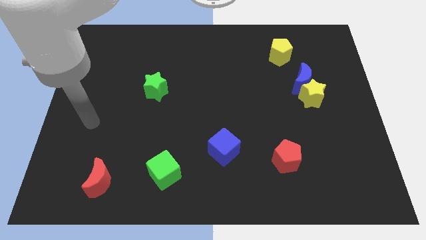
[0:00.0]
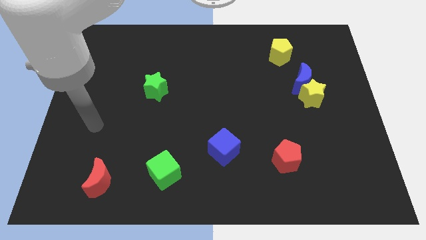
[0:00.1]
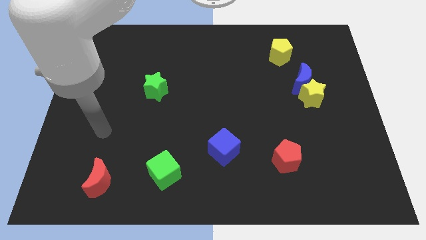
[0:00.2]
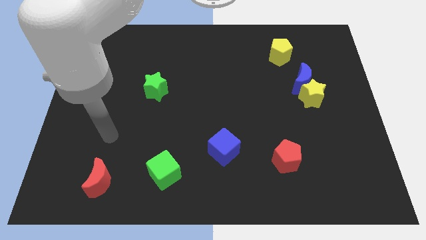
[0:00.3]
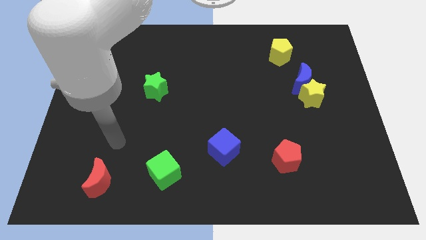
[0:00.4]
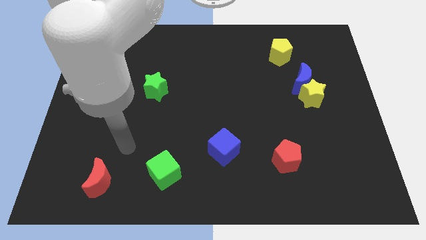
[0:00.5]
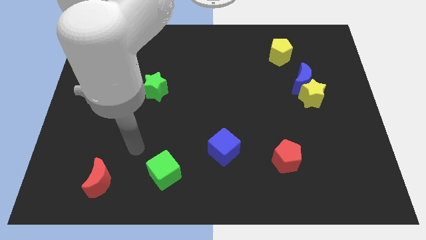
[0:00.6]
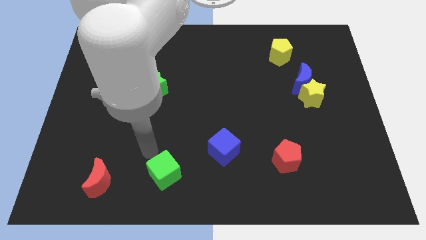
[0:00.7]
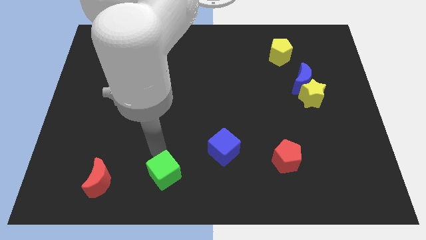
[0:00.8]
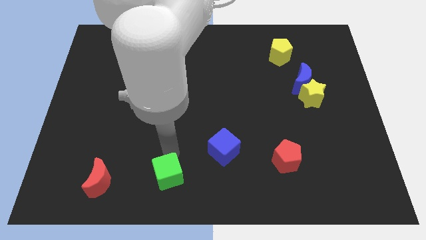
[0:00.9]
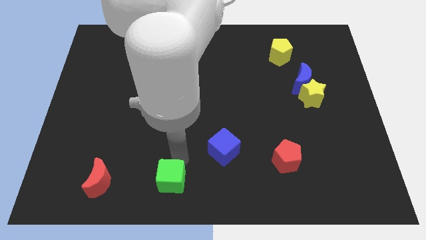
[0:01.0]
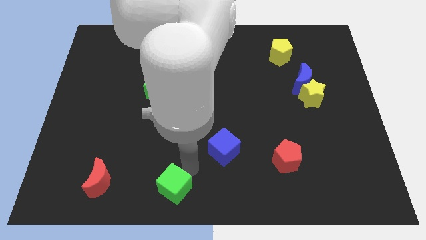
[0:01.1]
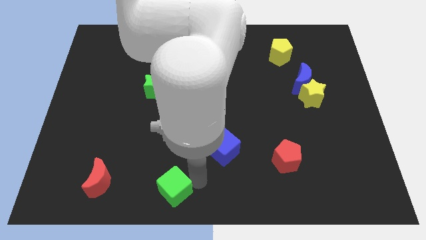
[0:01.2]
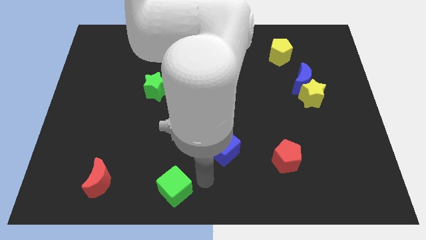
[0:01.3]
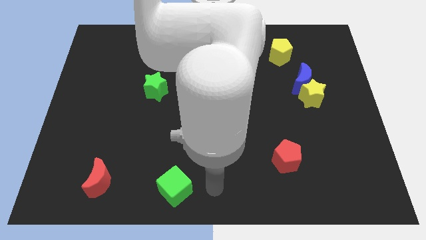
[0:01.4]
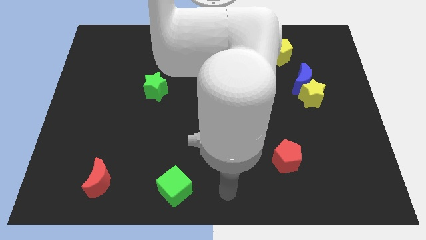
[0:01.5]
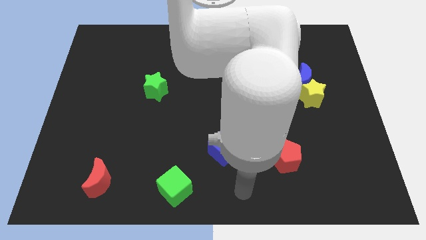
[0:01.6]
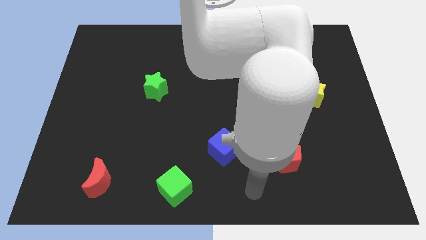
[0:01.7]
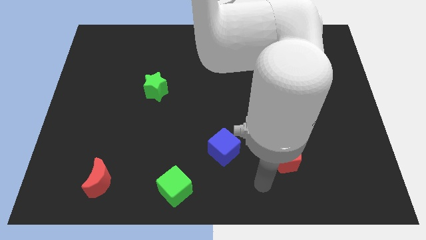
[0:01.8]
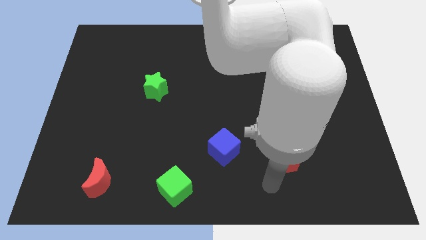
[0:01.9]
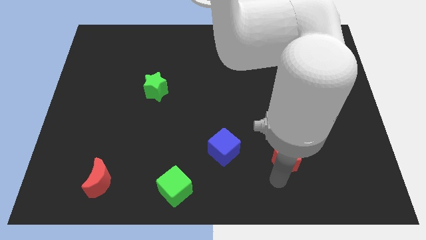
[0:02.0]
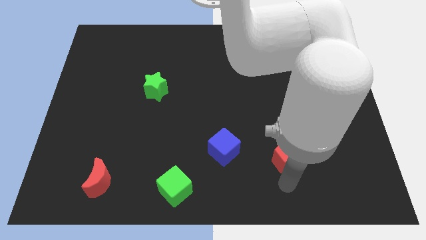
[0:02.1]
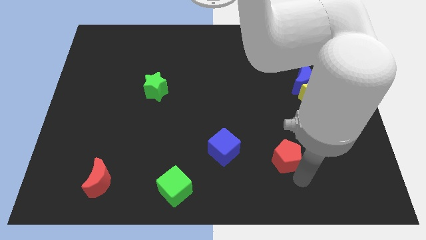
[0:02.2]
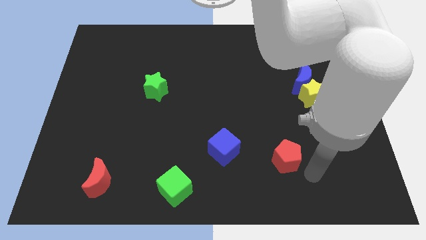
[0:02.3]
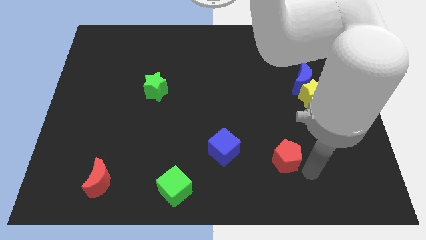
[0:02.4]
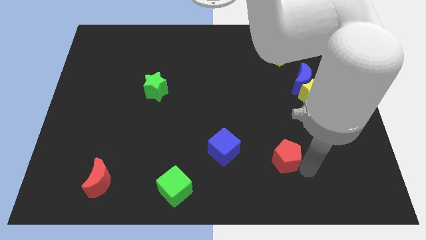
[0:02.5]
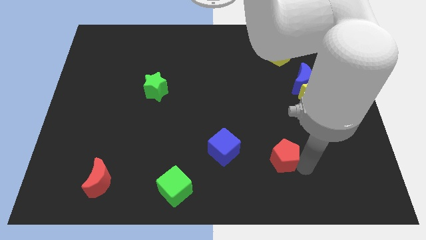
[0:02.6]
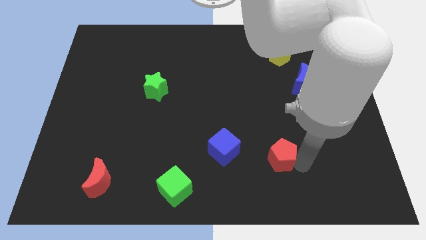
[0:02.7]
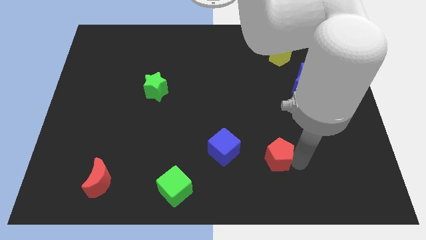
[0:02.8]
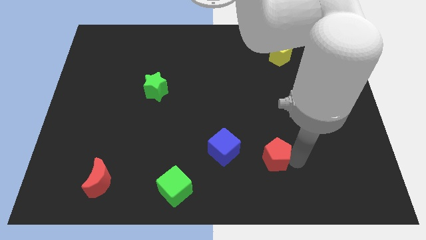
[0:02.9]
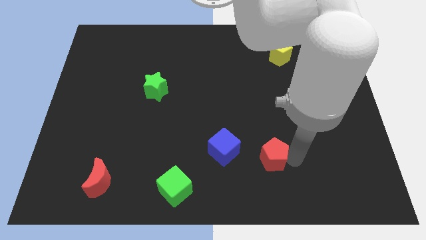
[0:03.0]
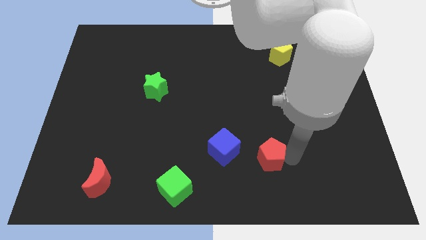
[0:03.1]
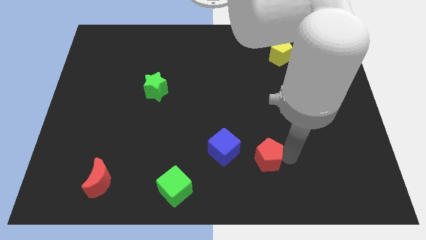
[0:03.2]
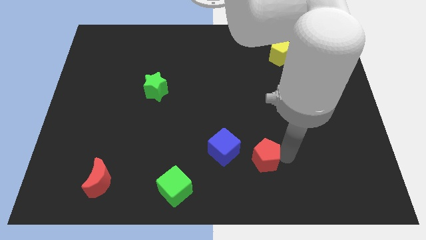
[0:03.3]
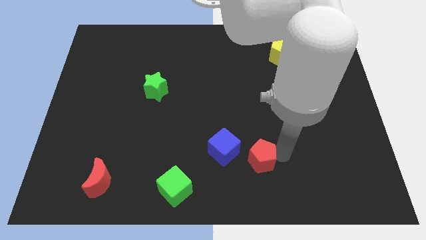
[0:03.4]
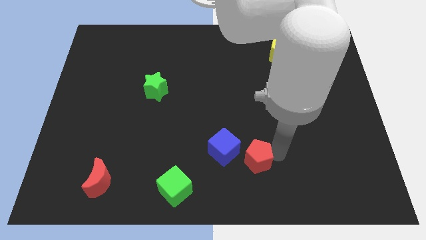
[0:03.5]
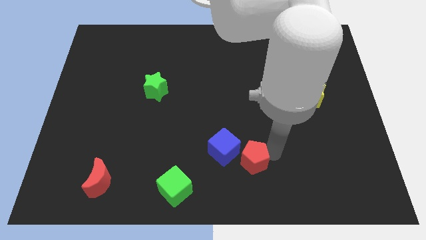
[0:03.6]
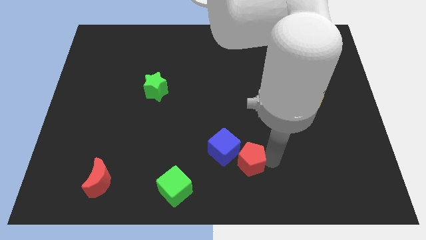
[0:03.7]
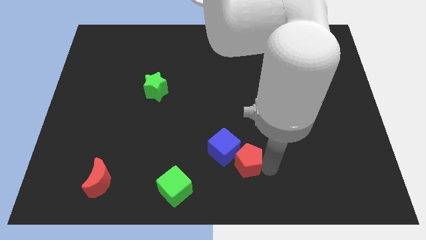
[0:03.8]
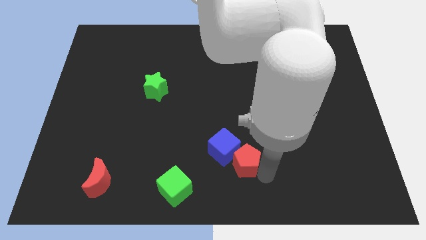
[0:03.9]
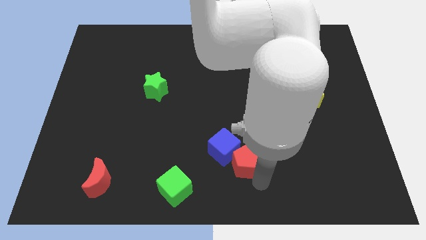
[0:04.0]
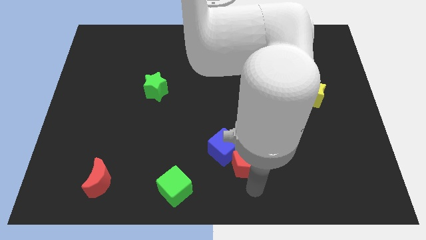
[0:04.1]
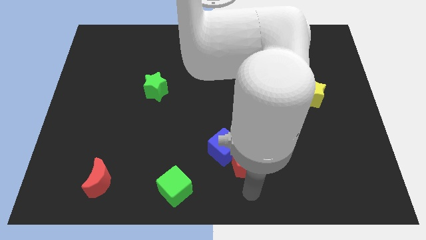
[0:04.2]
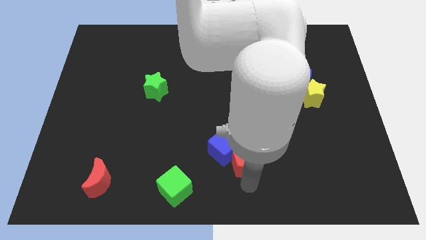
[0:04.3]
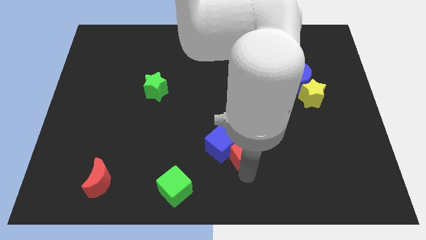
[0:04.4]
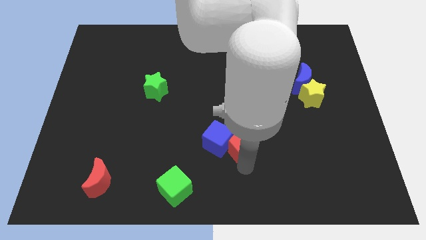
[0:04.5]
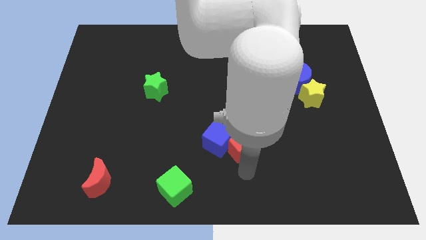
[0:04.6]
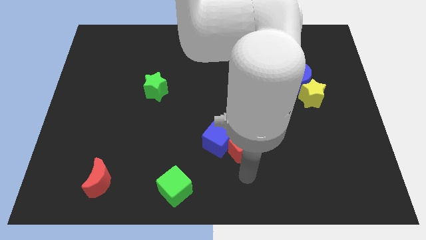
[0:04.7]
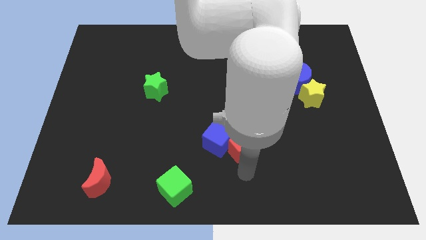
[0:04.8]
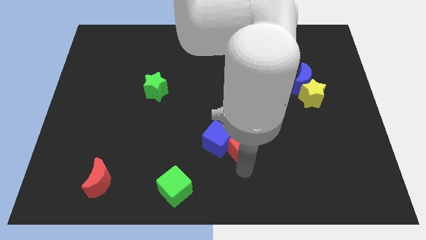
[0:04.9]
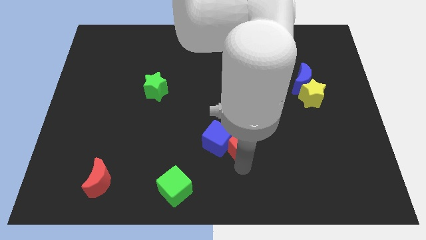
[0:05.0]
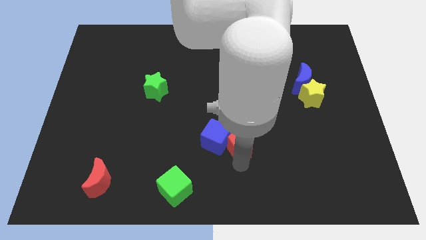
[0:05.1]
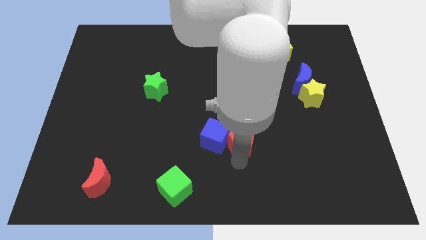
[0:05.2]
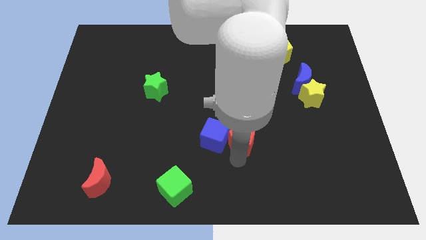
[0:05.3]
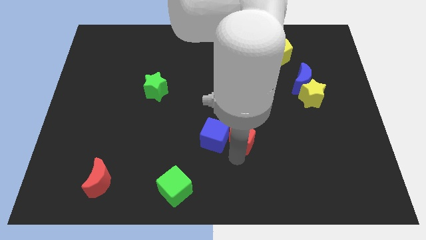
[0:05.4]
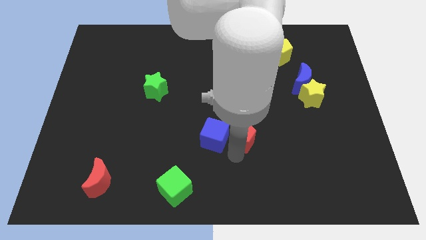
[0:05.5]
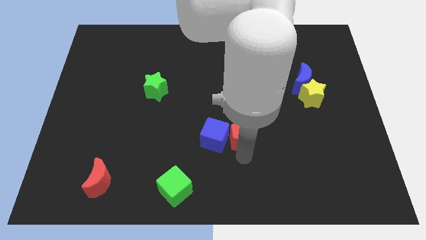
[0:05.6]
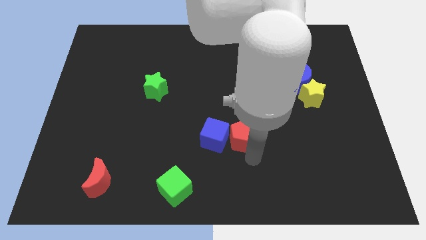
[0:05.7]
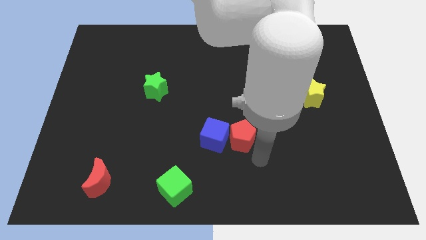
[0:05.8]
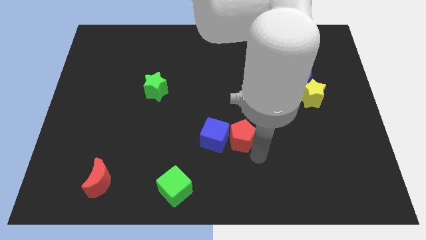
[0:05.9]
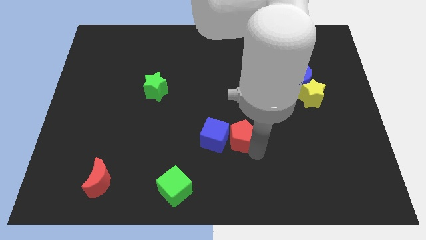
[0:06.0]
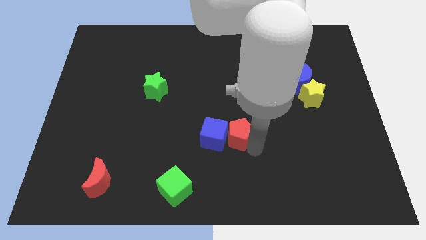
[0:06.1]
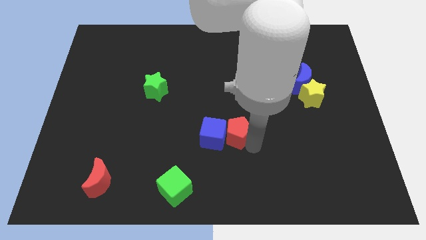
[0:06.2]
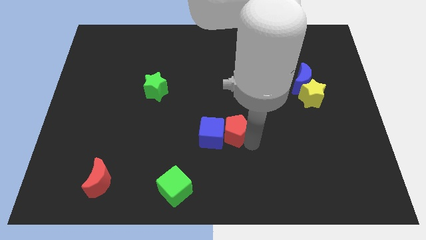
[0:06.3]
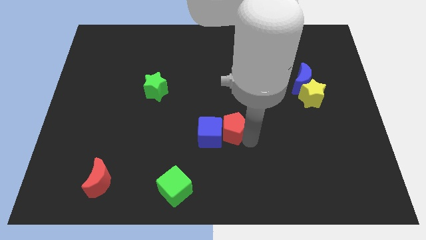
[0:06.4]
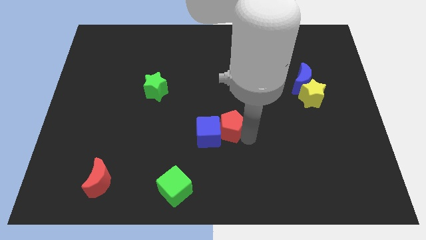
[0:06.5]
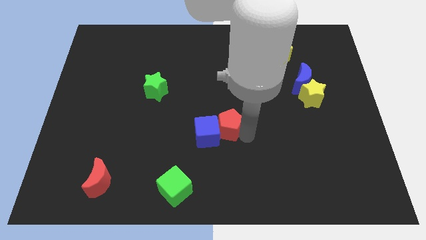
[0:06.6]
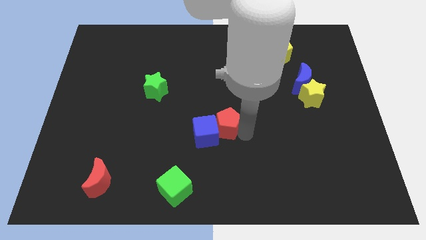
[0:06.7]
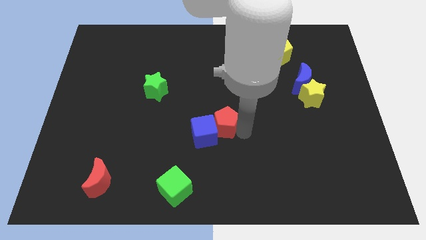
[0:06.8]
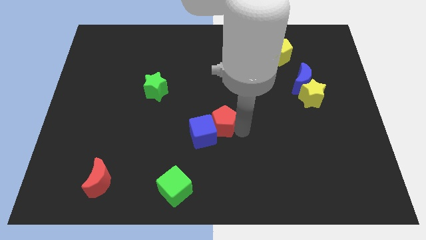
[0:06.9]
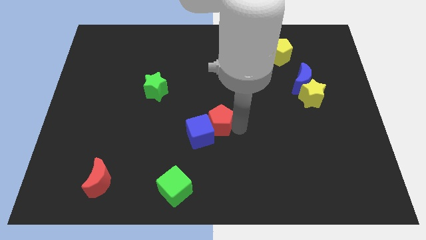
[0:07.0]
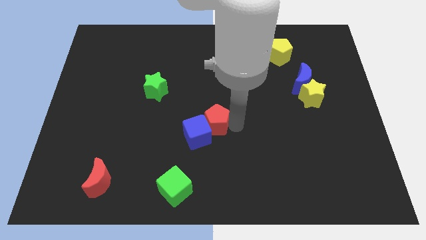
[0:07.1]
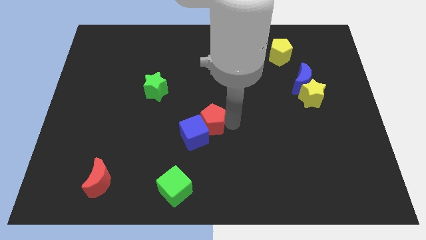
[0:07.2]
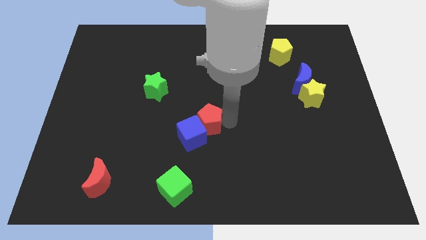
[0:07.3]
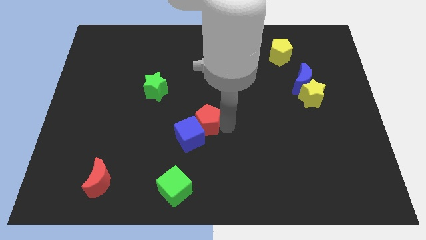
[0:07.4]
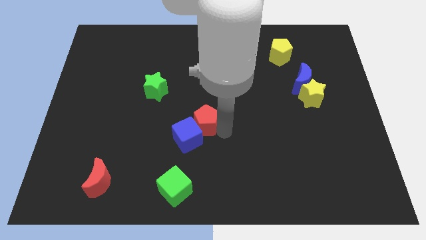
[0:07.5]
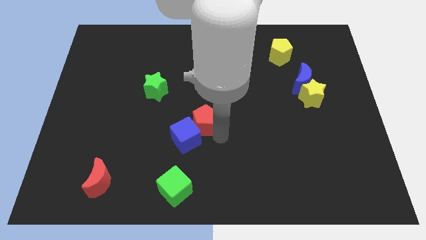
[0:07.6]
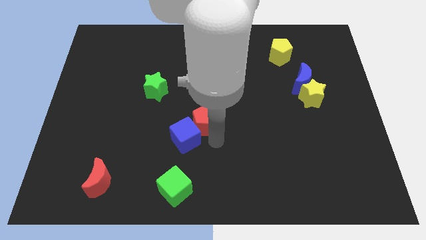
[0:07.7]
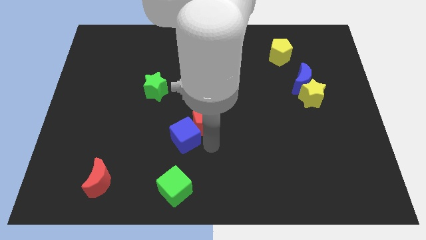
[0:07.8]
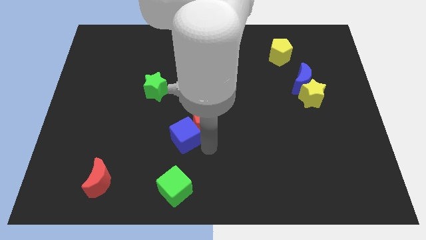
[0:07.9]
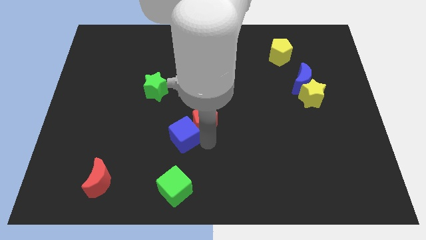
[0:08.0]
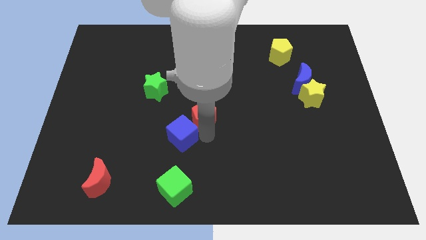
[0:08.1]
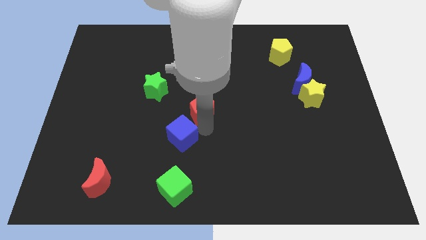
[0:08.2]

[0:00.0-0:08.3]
slide the red pentagon upwards and to the left
